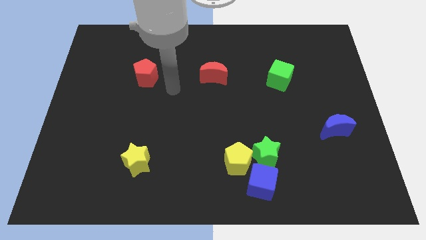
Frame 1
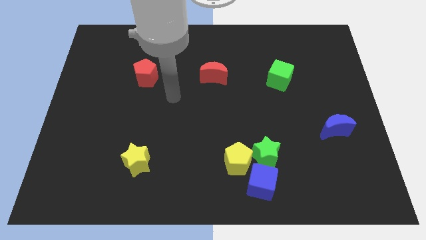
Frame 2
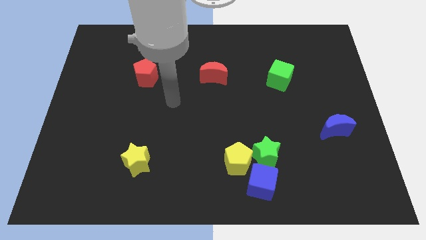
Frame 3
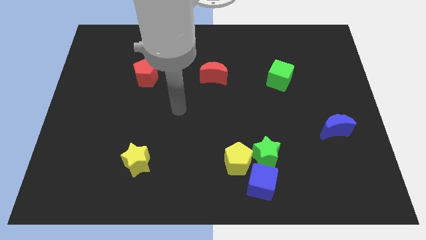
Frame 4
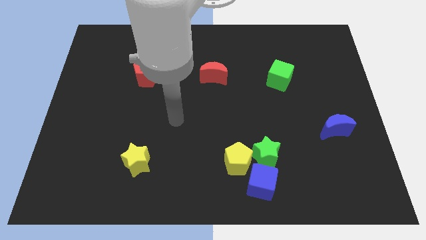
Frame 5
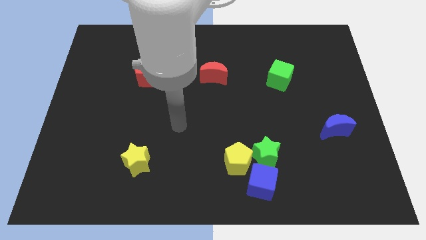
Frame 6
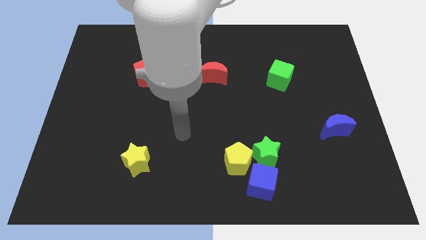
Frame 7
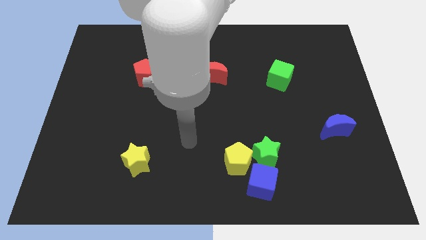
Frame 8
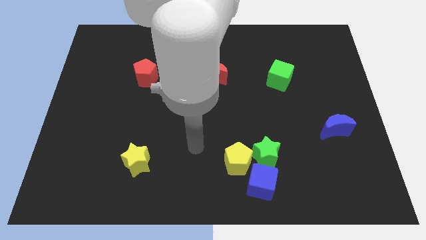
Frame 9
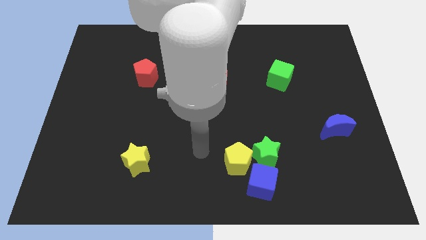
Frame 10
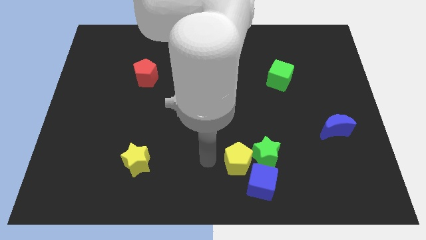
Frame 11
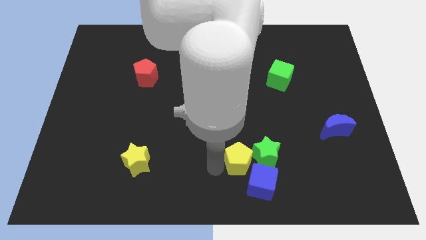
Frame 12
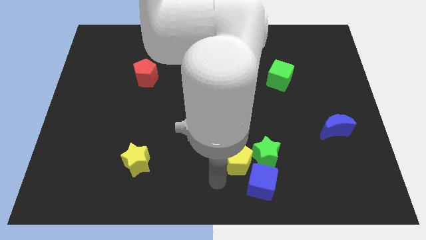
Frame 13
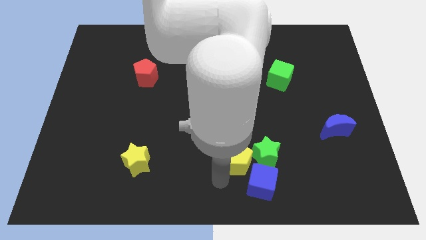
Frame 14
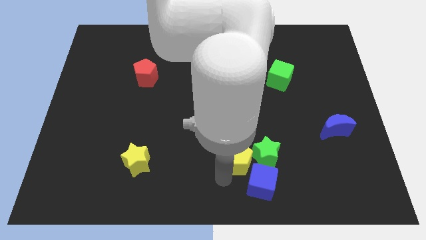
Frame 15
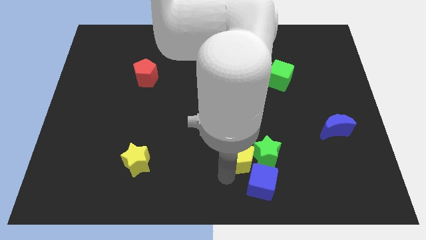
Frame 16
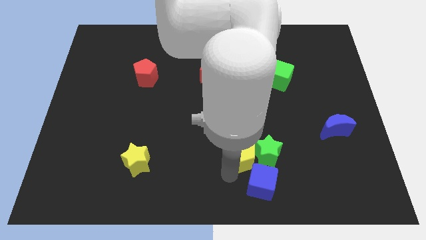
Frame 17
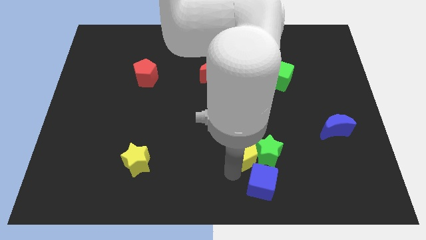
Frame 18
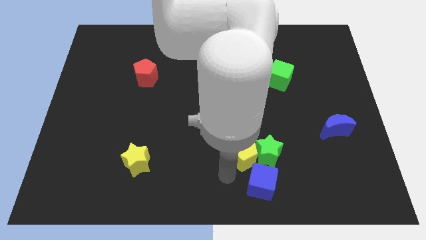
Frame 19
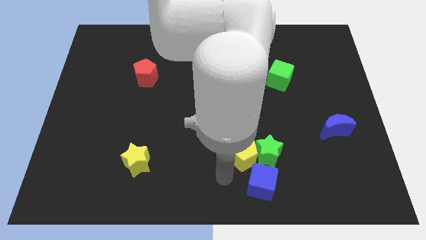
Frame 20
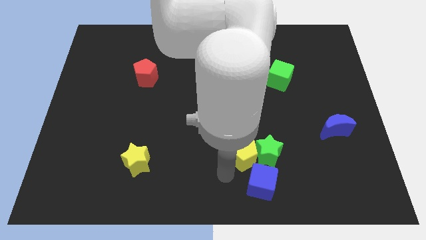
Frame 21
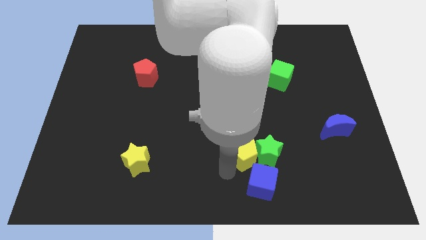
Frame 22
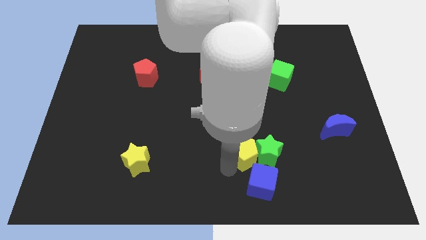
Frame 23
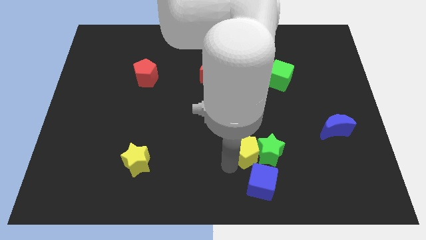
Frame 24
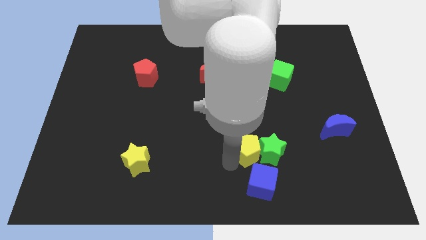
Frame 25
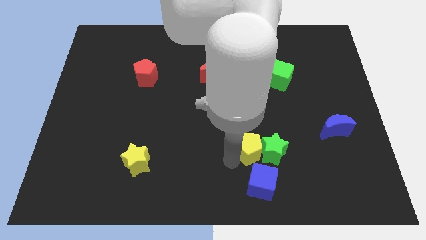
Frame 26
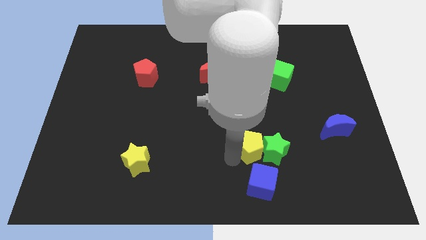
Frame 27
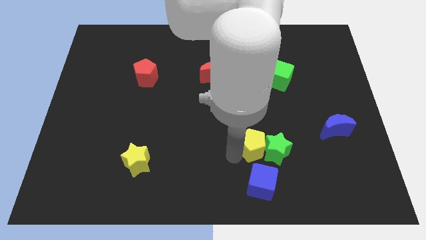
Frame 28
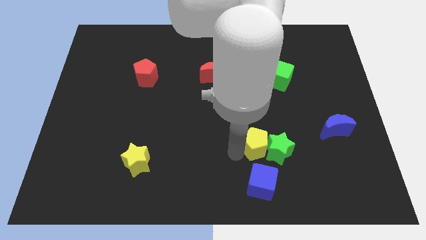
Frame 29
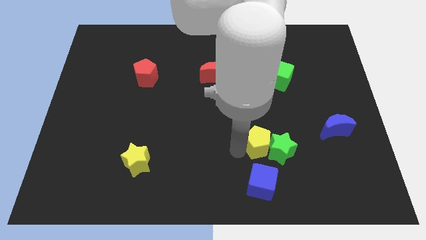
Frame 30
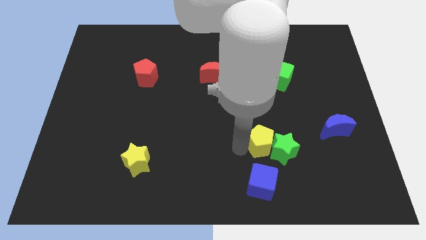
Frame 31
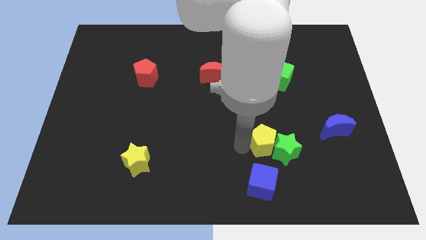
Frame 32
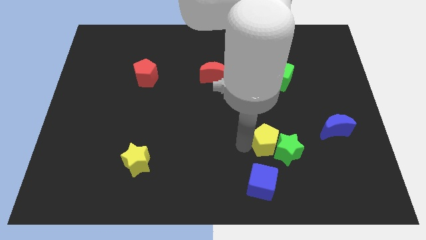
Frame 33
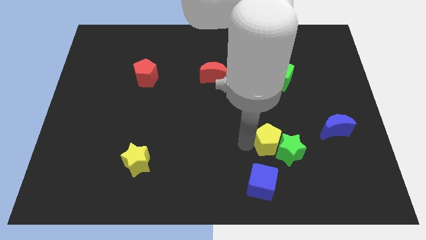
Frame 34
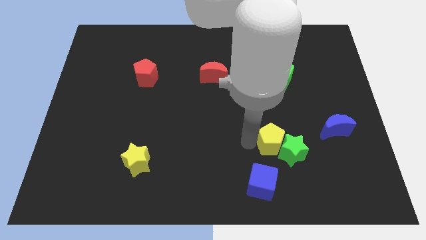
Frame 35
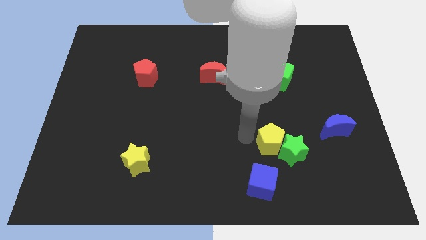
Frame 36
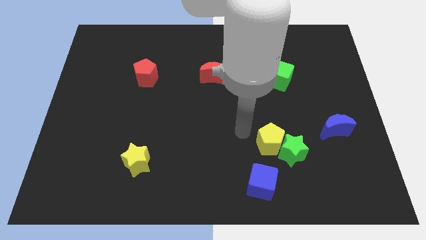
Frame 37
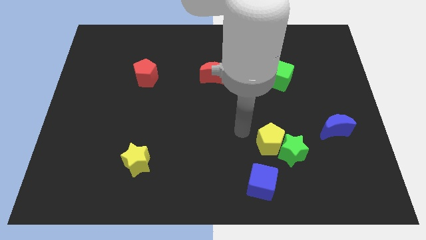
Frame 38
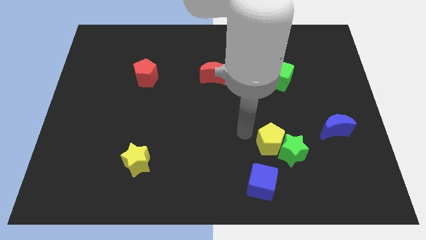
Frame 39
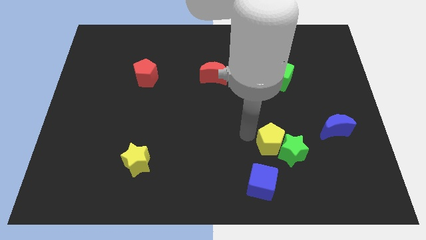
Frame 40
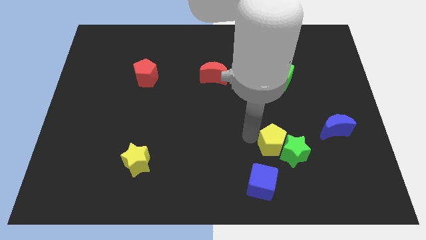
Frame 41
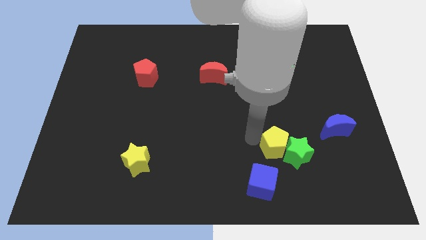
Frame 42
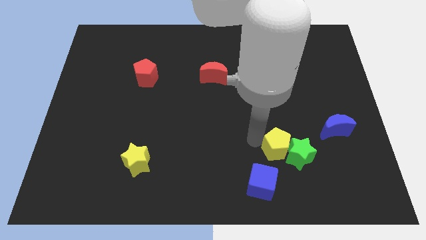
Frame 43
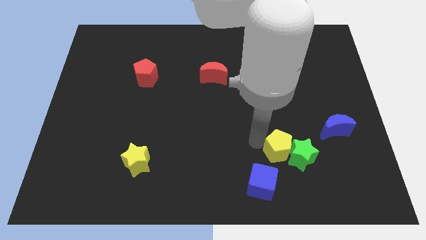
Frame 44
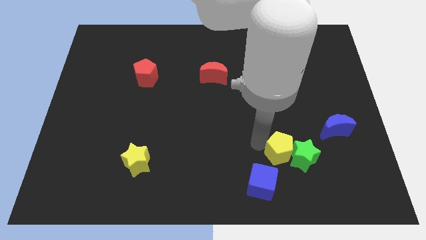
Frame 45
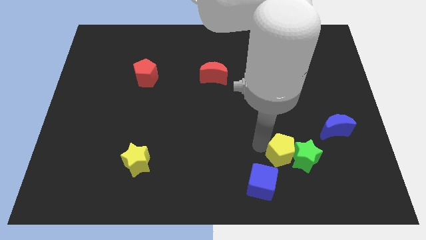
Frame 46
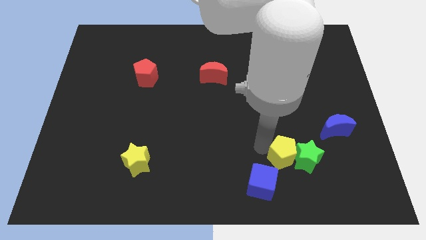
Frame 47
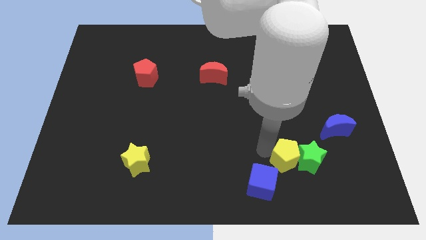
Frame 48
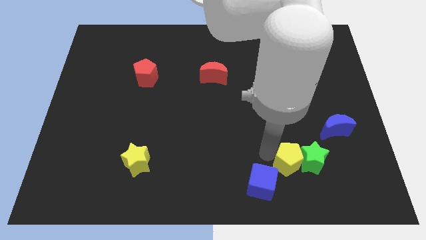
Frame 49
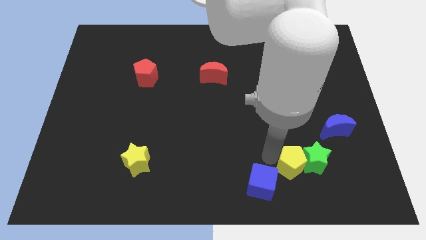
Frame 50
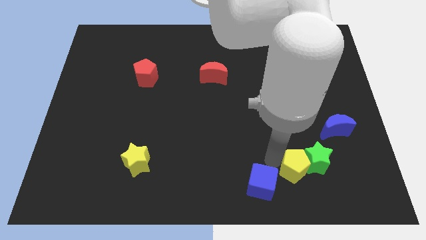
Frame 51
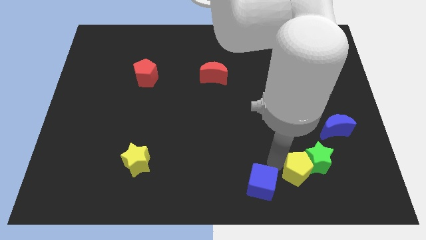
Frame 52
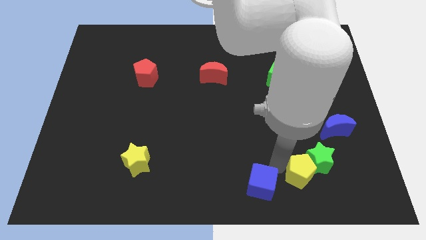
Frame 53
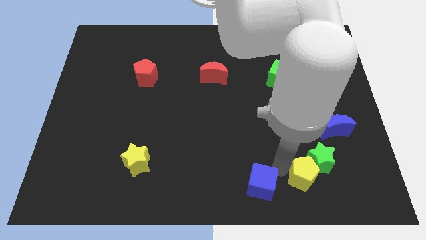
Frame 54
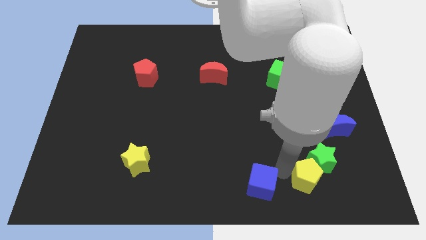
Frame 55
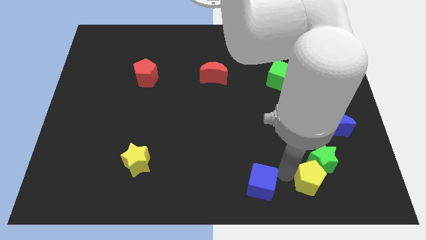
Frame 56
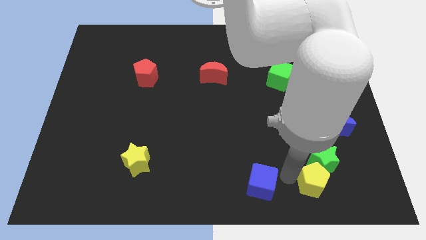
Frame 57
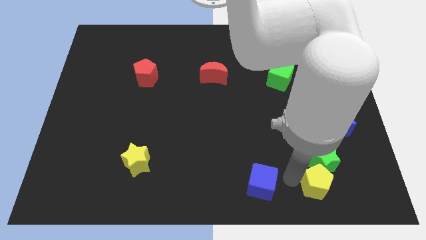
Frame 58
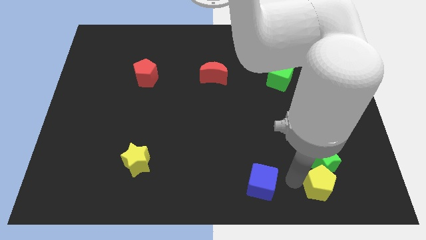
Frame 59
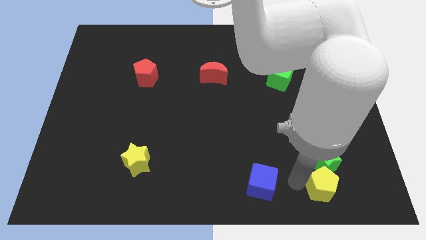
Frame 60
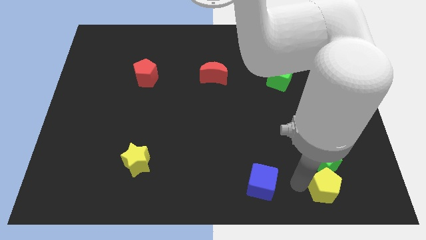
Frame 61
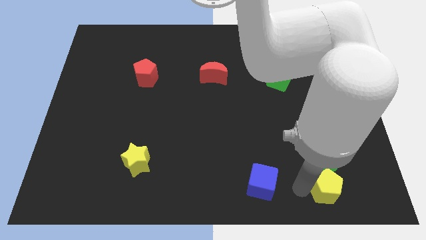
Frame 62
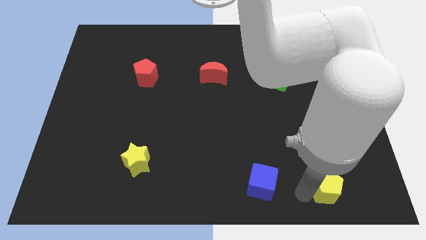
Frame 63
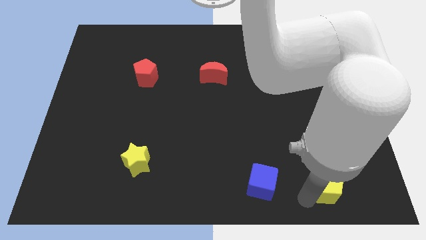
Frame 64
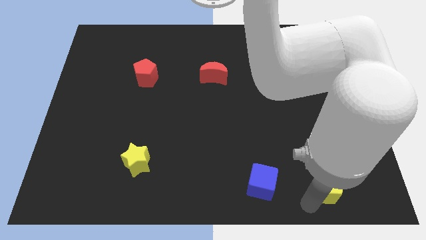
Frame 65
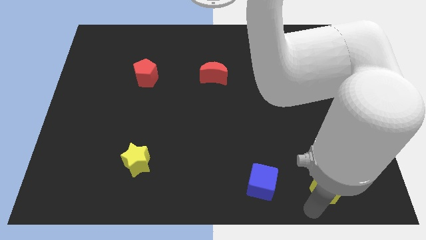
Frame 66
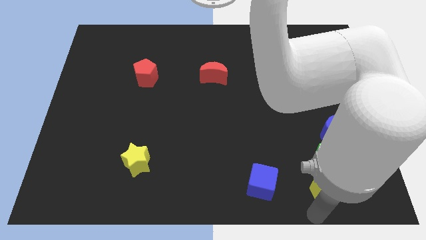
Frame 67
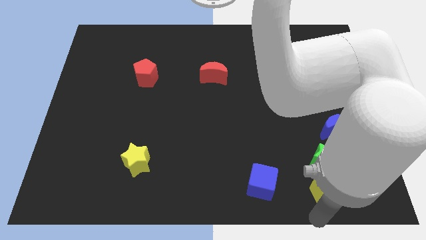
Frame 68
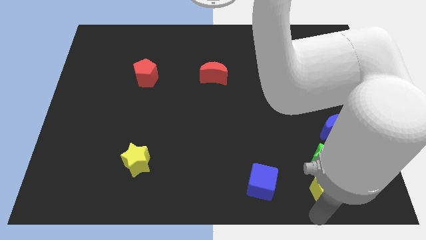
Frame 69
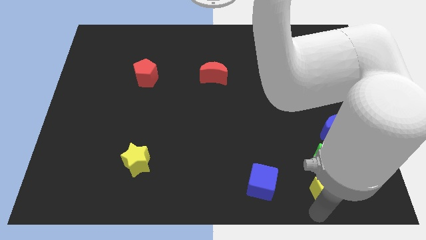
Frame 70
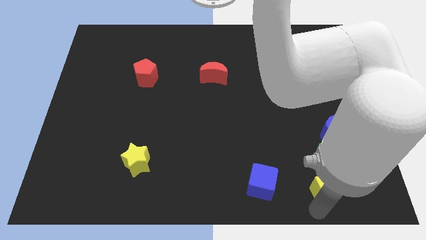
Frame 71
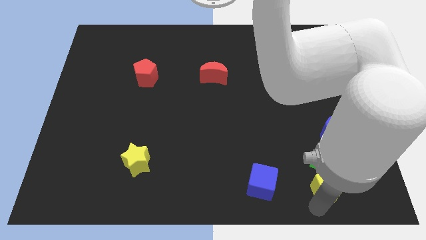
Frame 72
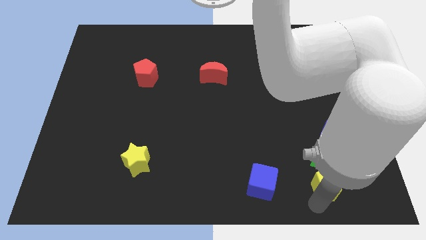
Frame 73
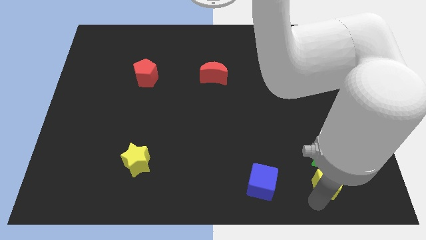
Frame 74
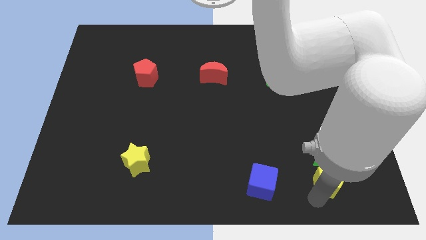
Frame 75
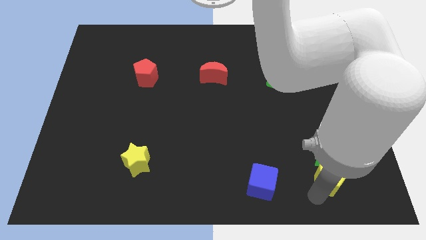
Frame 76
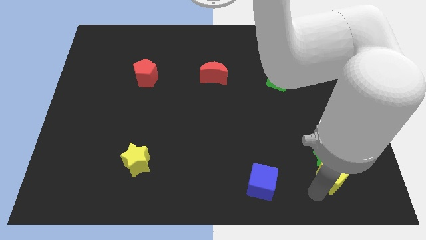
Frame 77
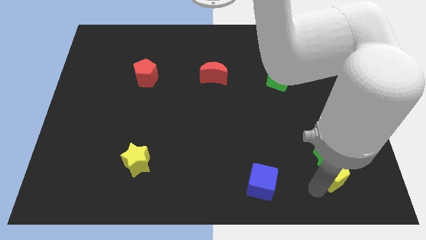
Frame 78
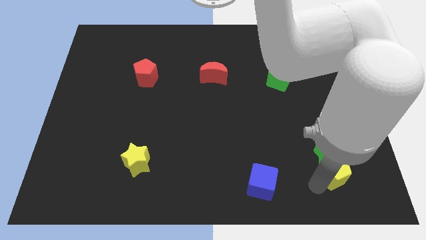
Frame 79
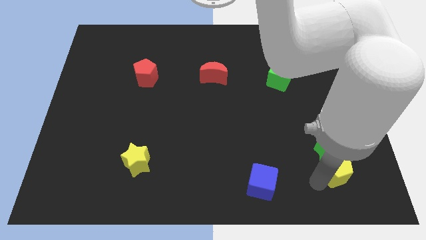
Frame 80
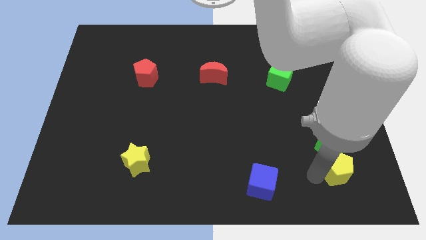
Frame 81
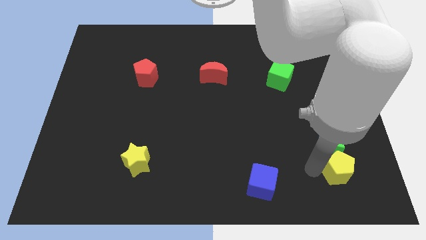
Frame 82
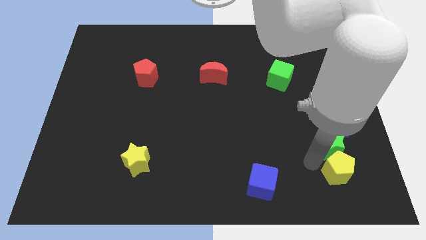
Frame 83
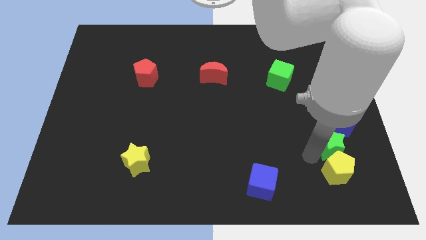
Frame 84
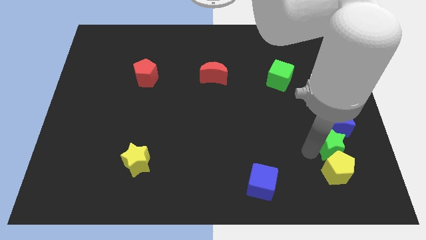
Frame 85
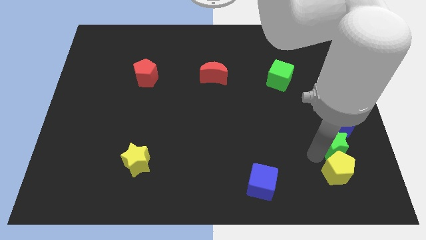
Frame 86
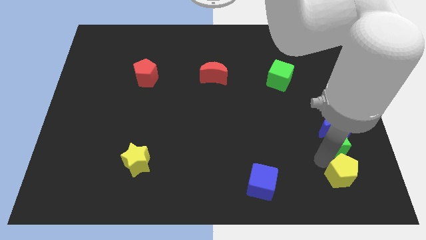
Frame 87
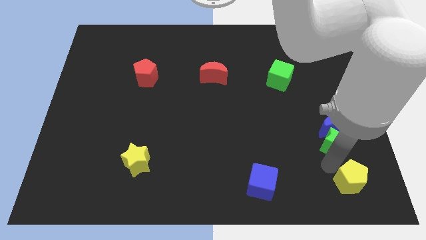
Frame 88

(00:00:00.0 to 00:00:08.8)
slide the yellow pentagon to the lower right corner
